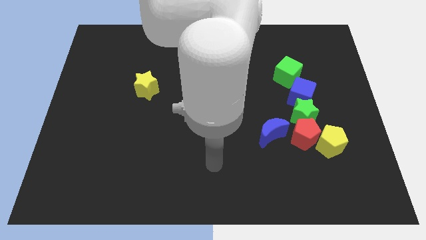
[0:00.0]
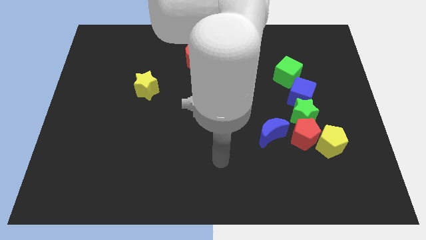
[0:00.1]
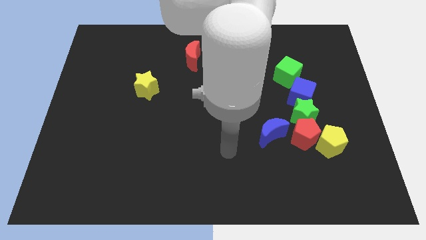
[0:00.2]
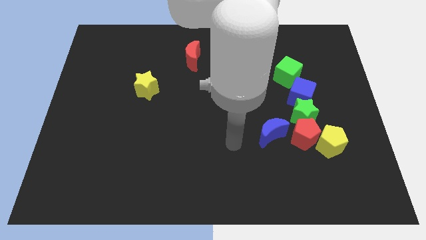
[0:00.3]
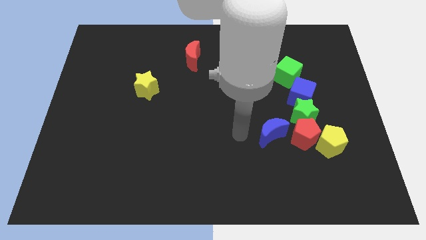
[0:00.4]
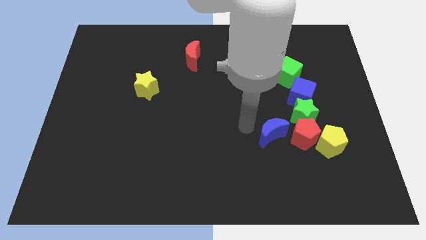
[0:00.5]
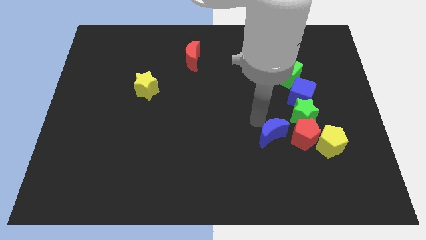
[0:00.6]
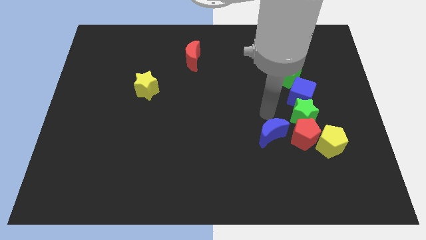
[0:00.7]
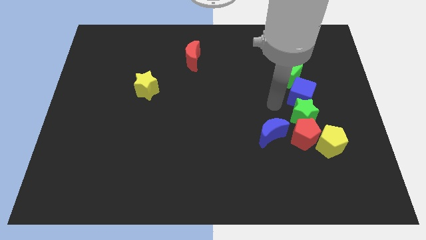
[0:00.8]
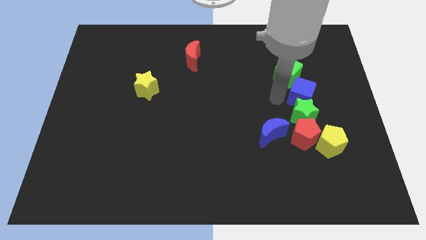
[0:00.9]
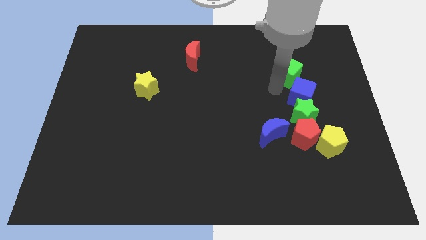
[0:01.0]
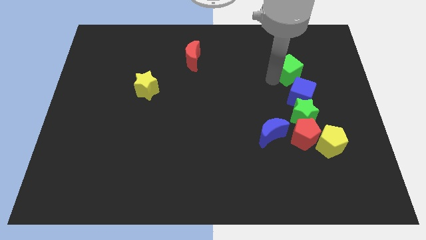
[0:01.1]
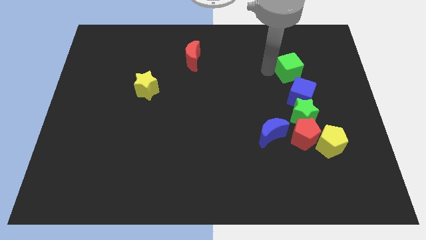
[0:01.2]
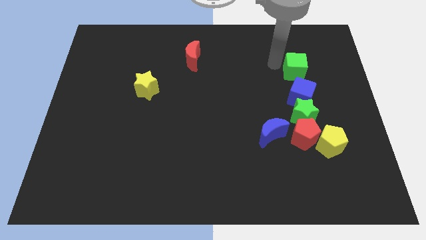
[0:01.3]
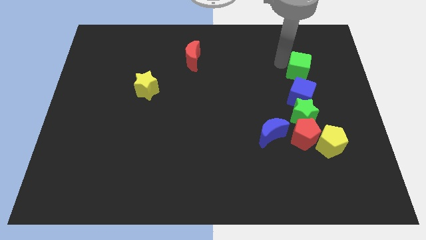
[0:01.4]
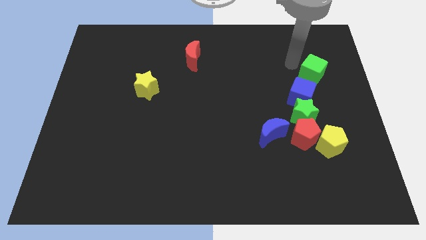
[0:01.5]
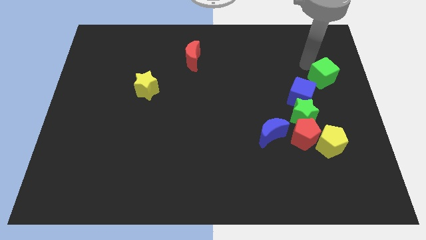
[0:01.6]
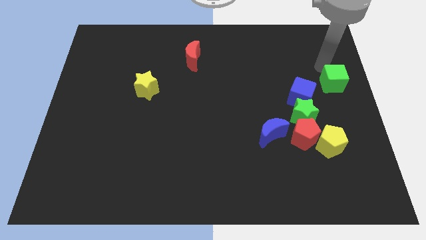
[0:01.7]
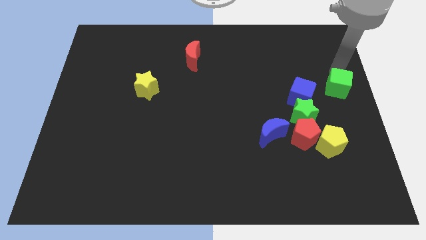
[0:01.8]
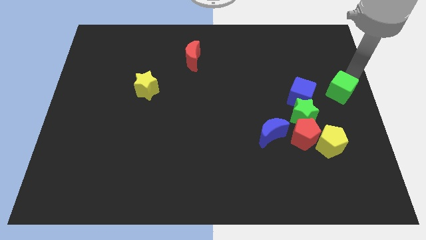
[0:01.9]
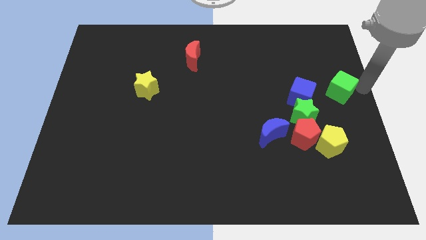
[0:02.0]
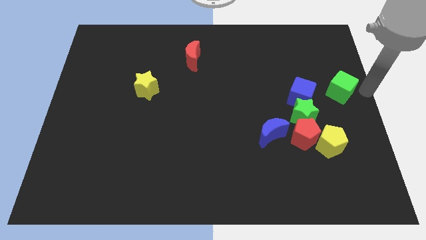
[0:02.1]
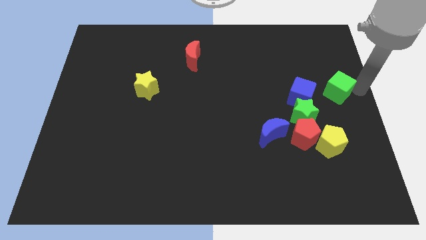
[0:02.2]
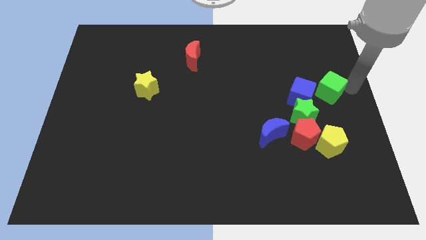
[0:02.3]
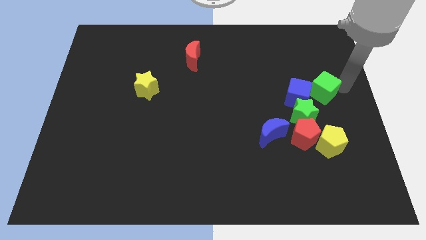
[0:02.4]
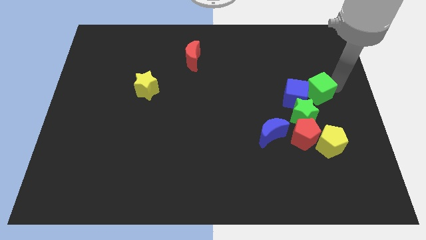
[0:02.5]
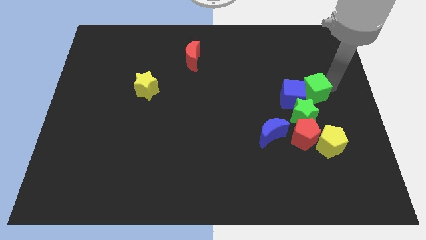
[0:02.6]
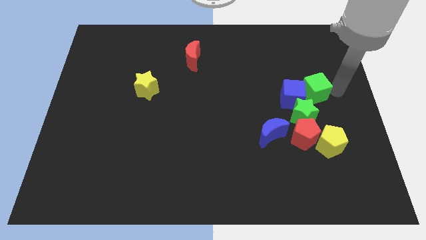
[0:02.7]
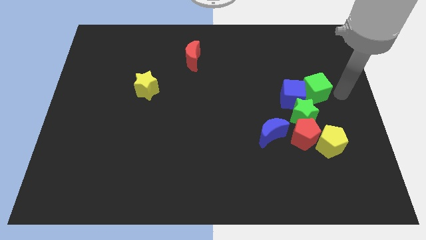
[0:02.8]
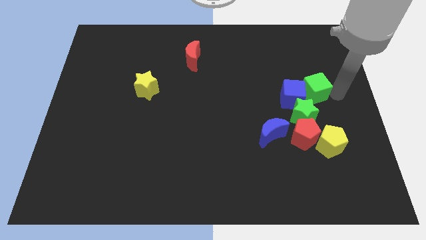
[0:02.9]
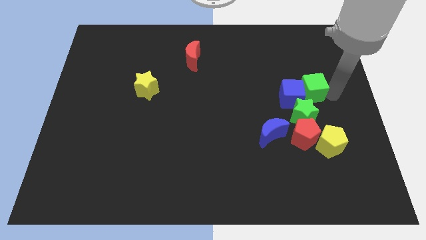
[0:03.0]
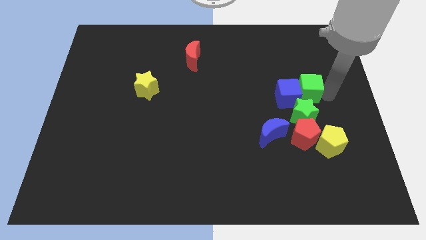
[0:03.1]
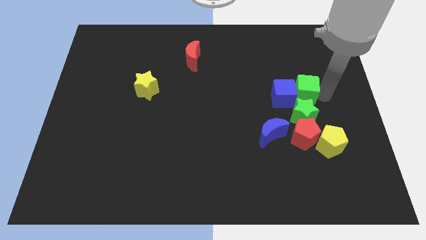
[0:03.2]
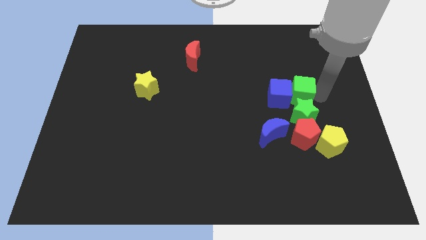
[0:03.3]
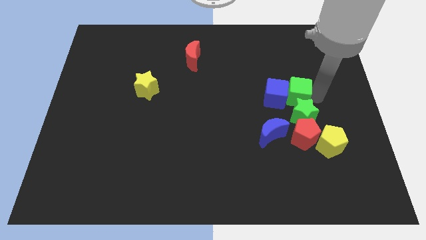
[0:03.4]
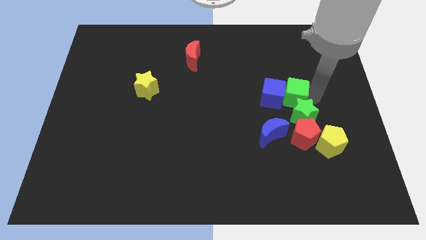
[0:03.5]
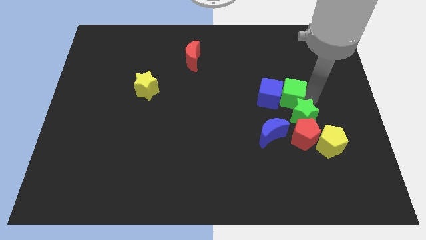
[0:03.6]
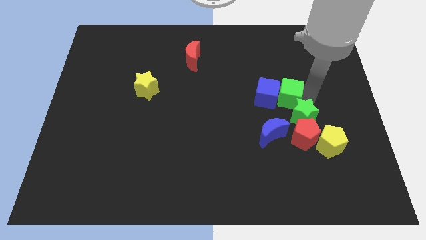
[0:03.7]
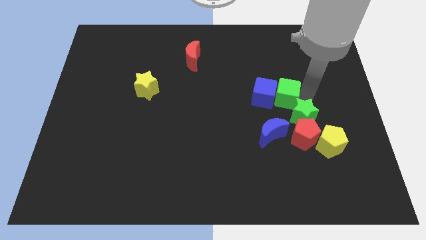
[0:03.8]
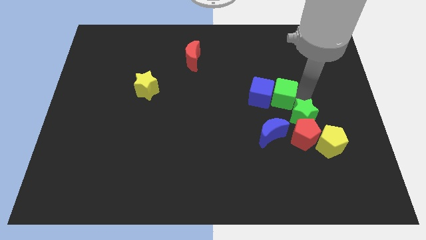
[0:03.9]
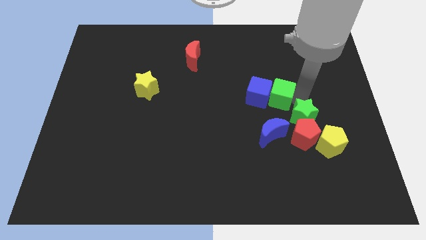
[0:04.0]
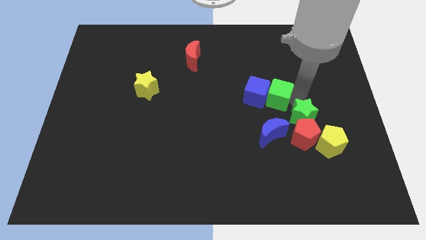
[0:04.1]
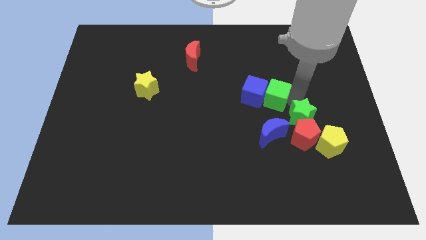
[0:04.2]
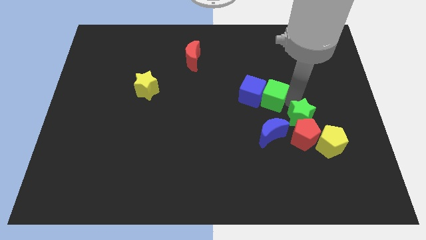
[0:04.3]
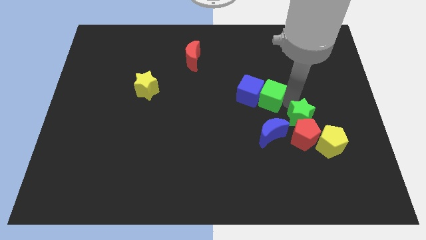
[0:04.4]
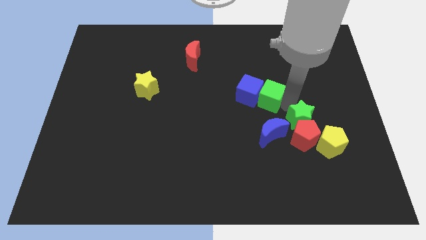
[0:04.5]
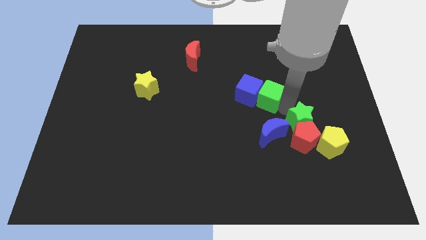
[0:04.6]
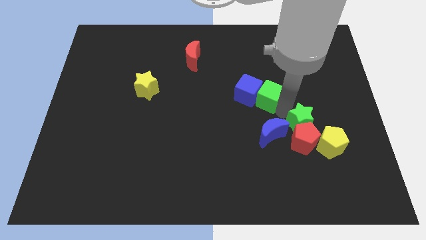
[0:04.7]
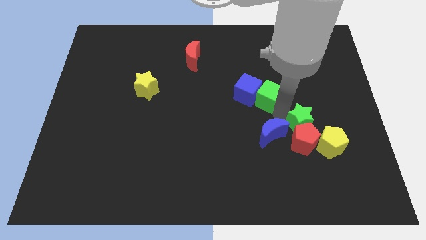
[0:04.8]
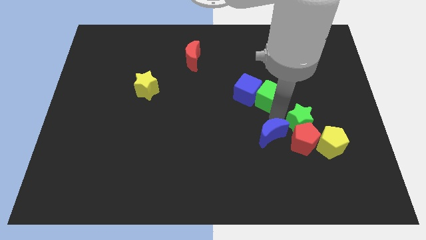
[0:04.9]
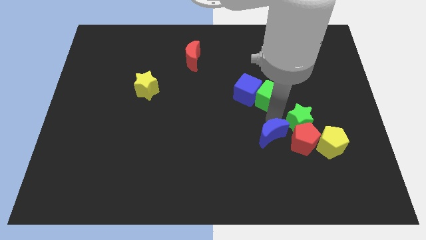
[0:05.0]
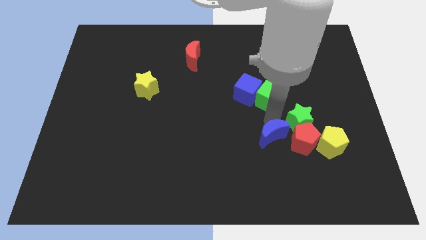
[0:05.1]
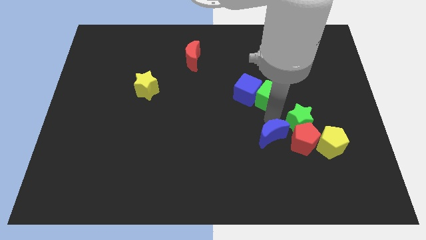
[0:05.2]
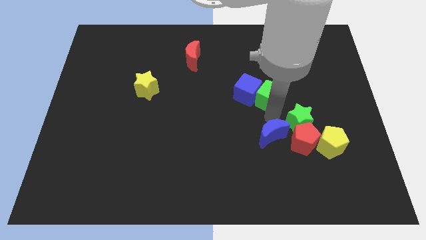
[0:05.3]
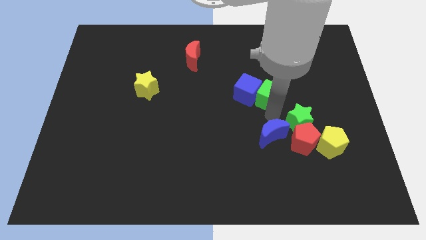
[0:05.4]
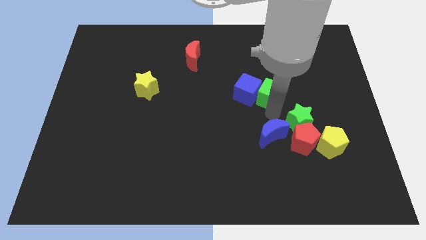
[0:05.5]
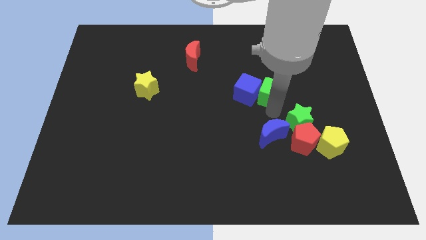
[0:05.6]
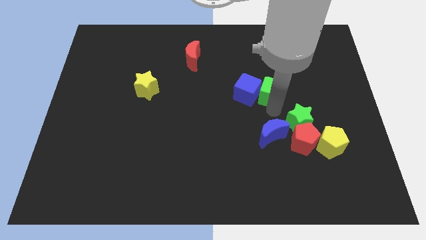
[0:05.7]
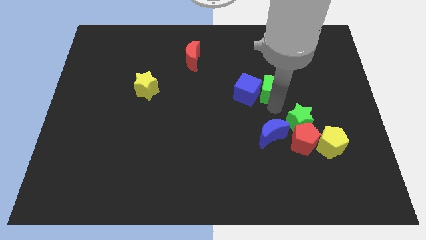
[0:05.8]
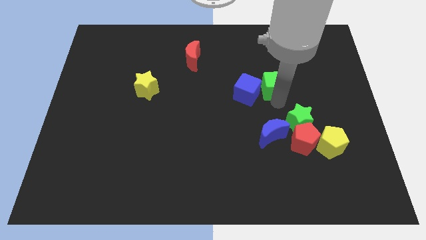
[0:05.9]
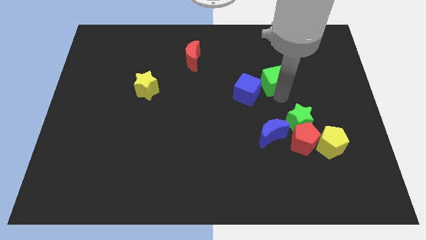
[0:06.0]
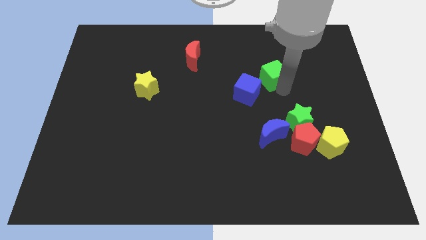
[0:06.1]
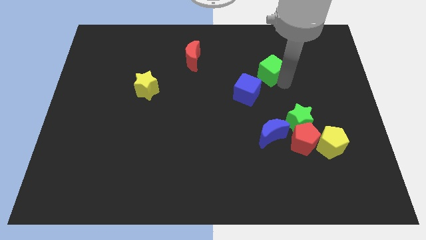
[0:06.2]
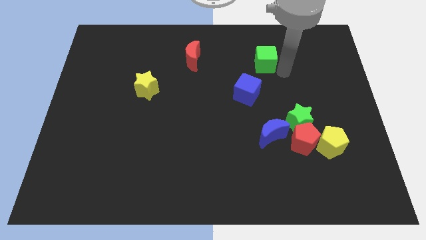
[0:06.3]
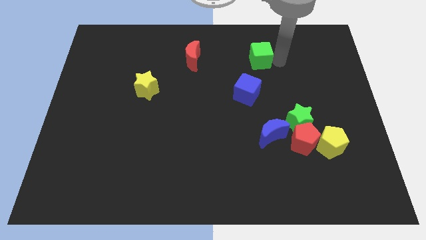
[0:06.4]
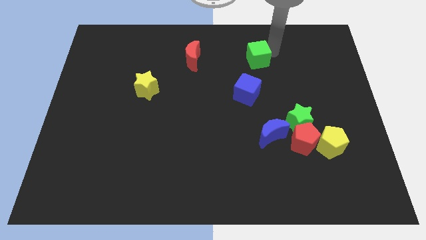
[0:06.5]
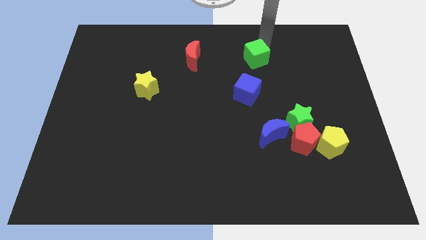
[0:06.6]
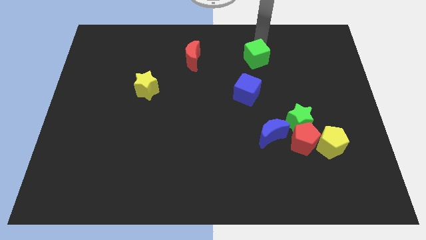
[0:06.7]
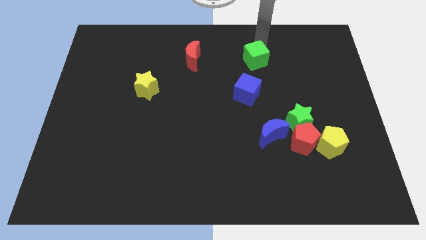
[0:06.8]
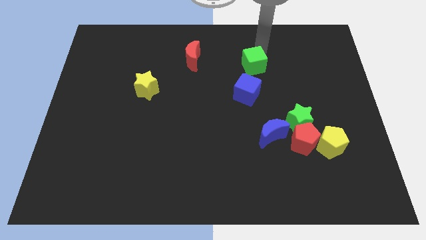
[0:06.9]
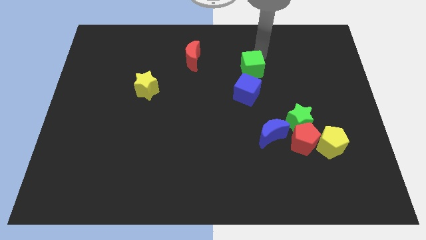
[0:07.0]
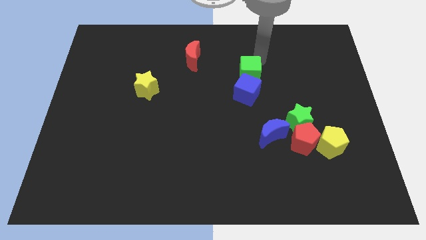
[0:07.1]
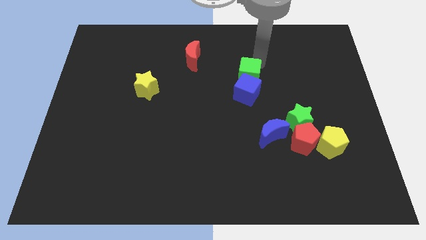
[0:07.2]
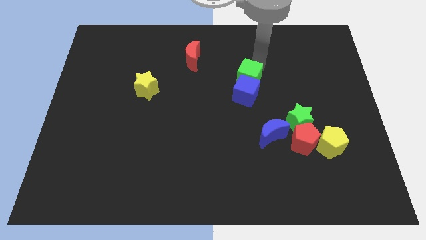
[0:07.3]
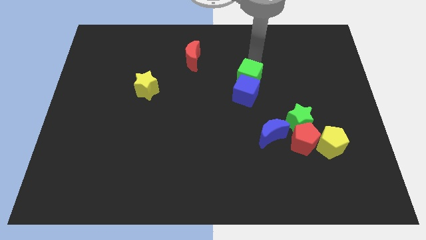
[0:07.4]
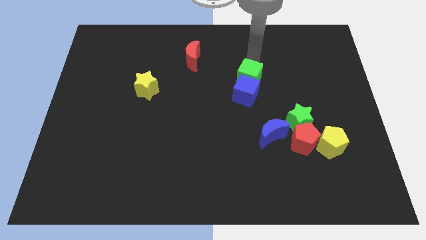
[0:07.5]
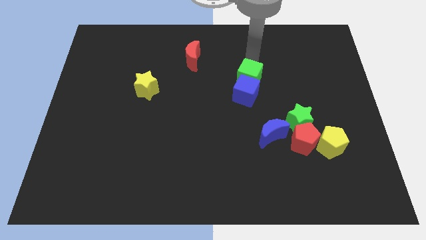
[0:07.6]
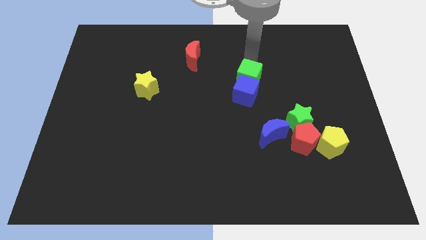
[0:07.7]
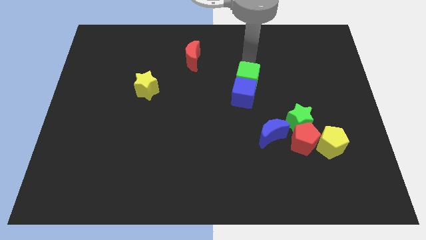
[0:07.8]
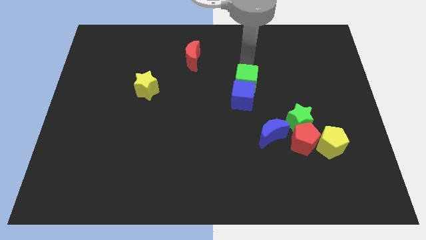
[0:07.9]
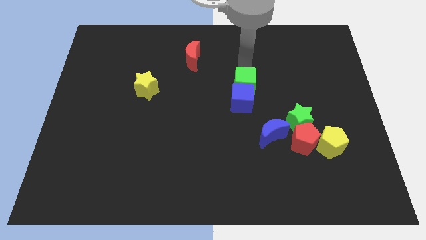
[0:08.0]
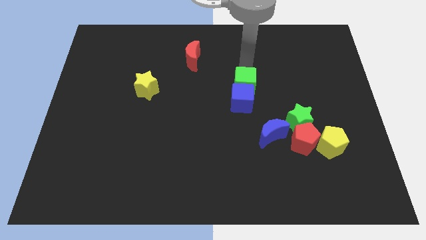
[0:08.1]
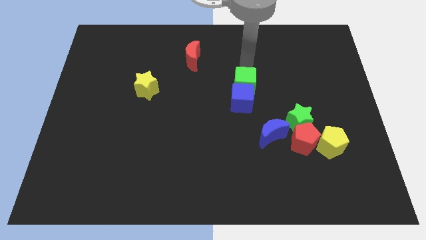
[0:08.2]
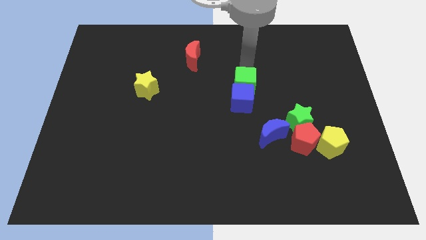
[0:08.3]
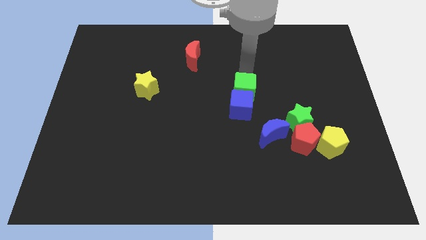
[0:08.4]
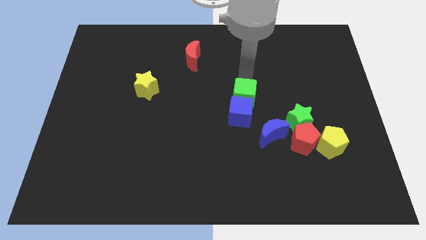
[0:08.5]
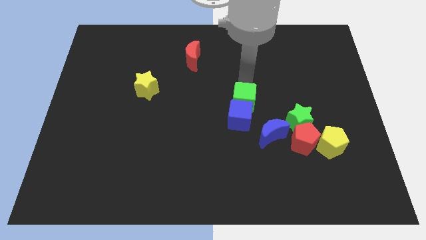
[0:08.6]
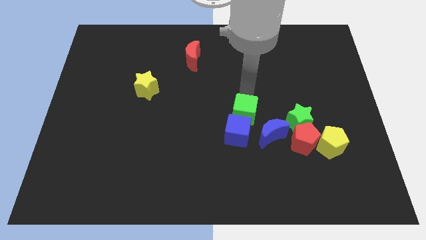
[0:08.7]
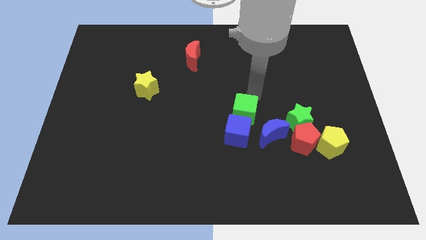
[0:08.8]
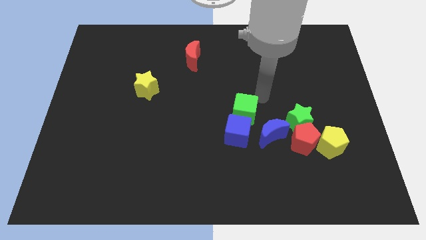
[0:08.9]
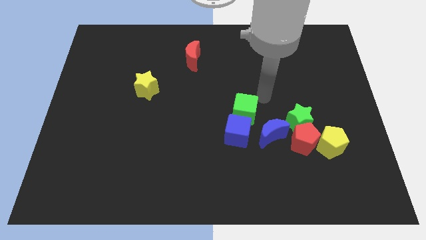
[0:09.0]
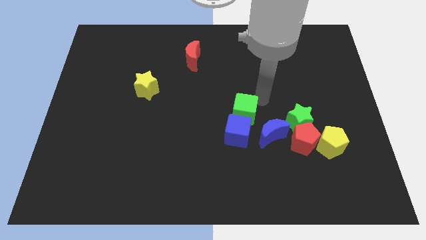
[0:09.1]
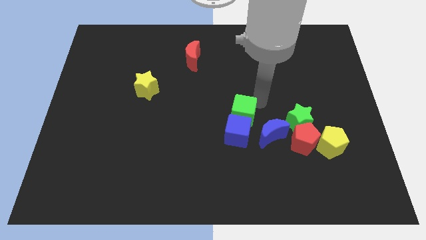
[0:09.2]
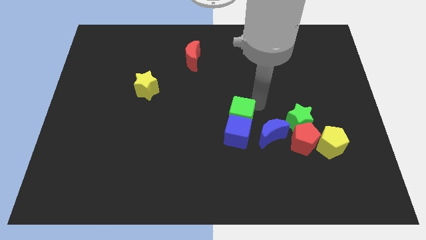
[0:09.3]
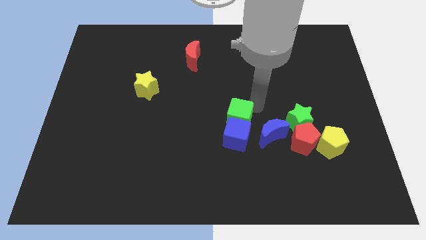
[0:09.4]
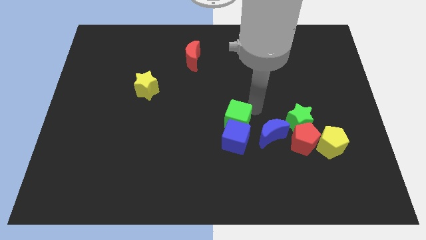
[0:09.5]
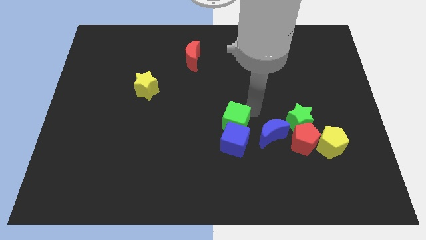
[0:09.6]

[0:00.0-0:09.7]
slide the green cube diagonally down and to the left
